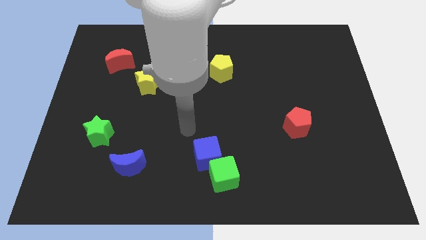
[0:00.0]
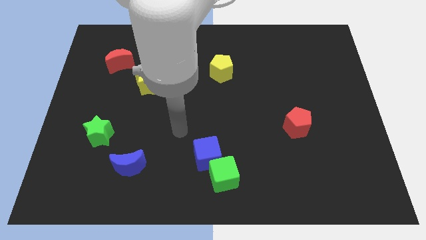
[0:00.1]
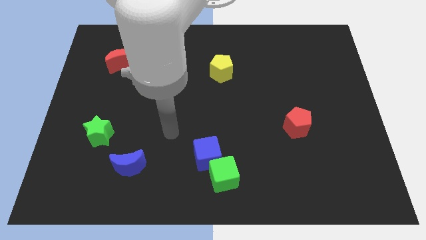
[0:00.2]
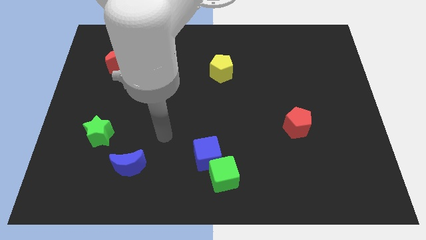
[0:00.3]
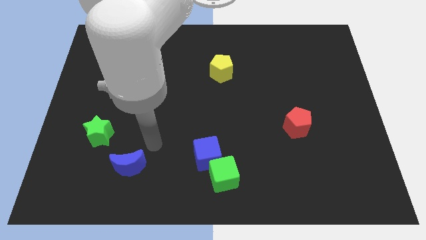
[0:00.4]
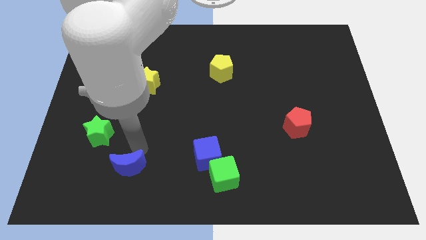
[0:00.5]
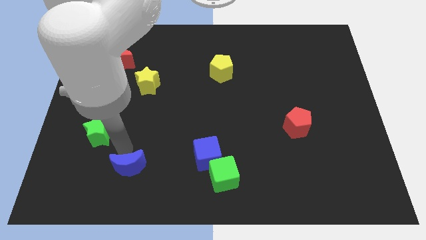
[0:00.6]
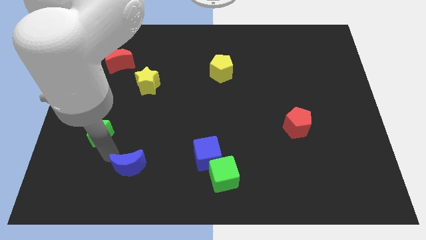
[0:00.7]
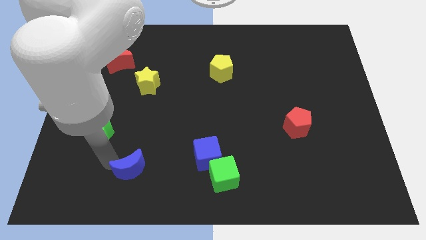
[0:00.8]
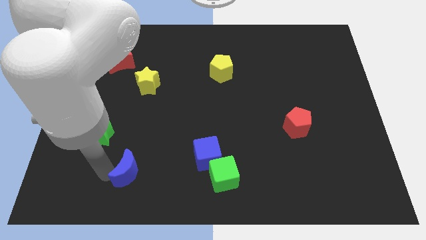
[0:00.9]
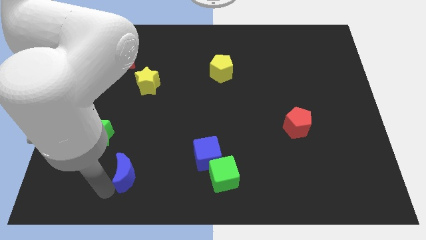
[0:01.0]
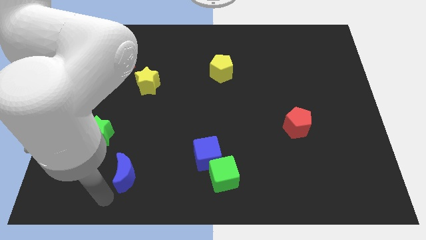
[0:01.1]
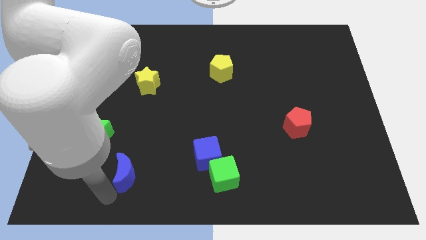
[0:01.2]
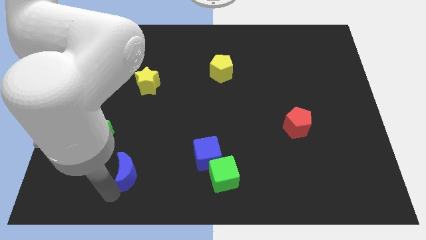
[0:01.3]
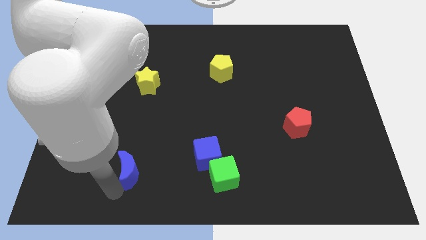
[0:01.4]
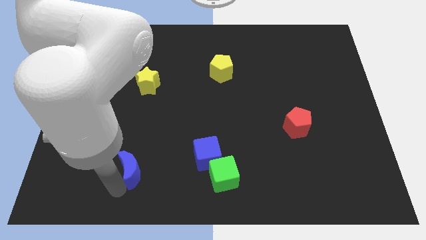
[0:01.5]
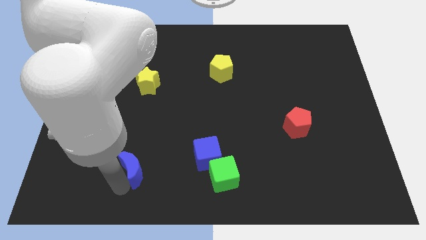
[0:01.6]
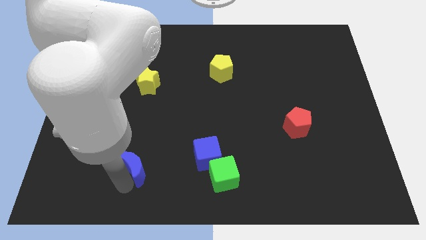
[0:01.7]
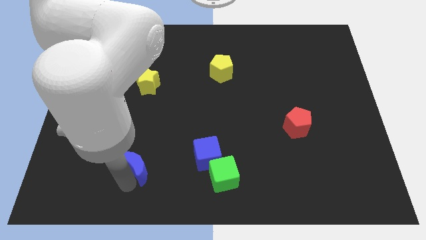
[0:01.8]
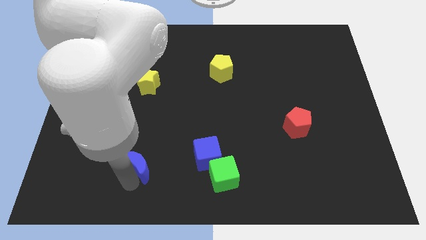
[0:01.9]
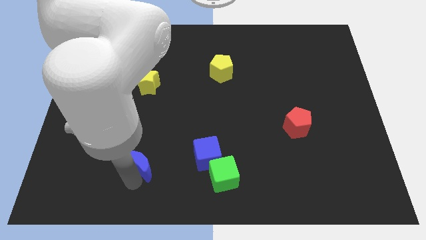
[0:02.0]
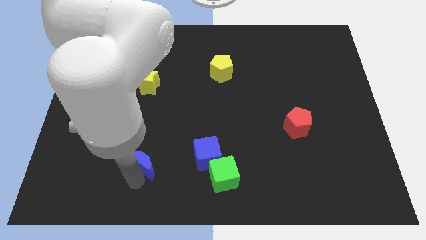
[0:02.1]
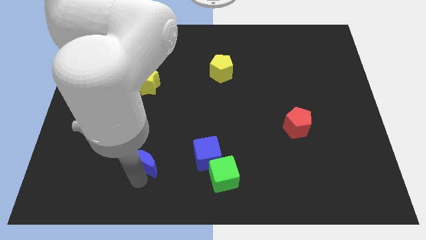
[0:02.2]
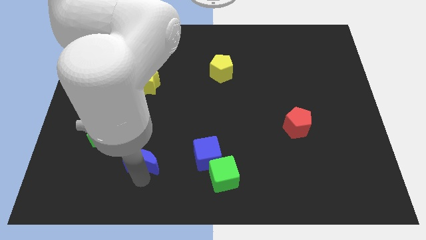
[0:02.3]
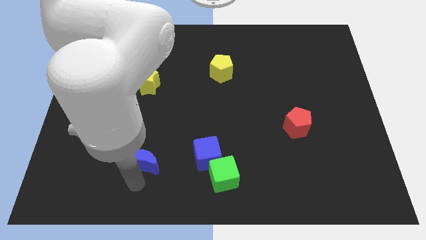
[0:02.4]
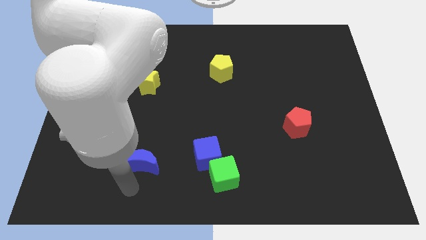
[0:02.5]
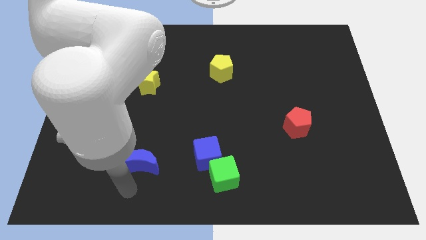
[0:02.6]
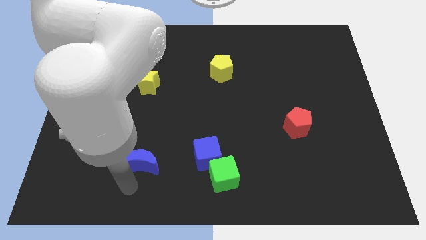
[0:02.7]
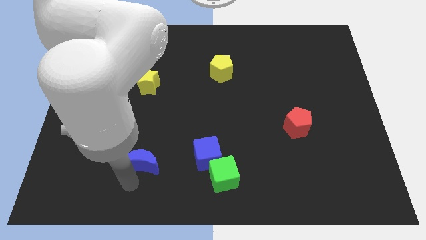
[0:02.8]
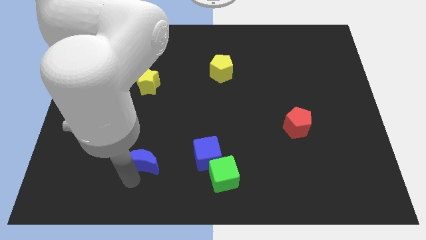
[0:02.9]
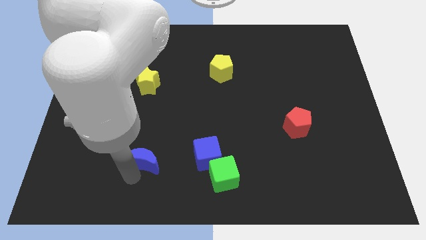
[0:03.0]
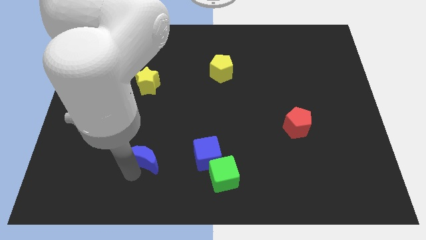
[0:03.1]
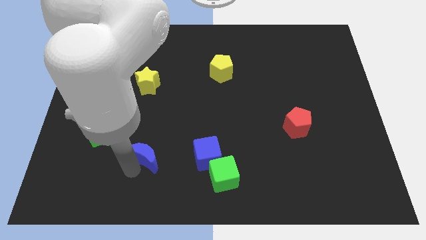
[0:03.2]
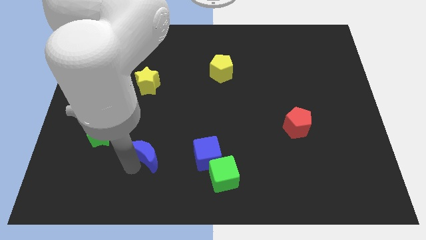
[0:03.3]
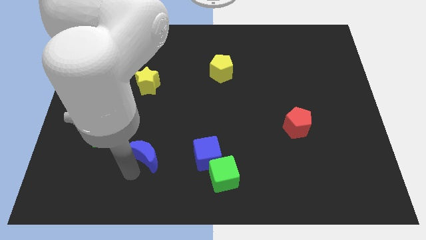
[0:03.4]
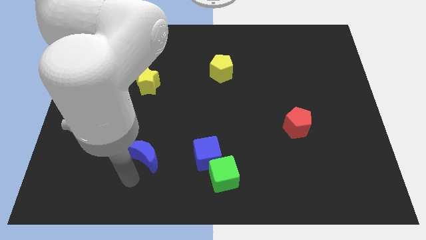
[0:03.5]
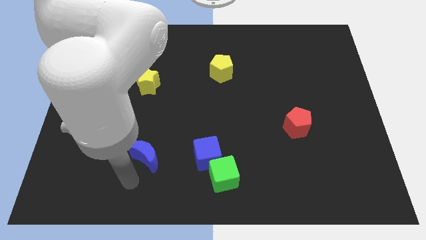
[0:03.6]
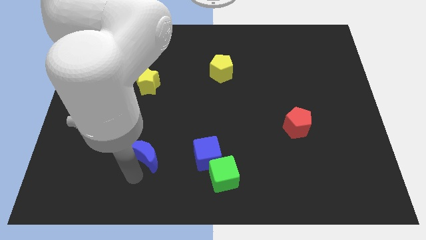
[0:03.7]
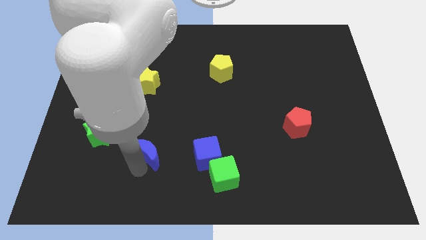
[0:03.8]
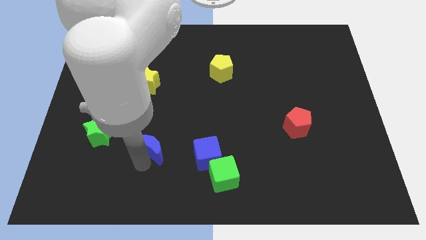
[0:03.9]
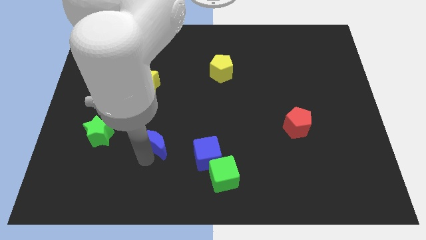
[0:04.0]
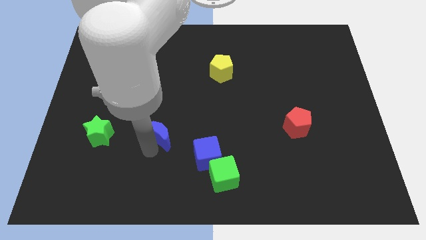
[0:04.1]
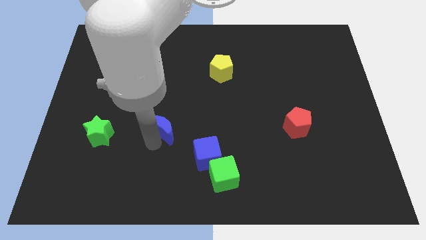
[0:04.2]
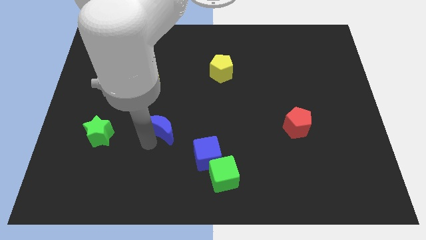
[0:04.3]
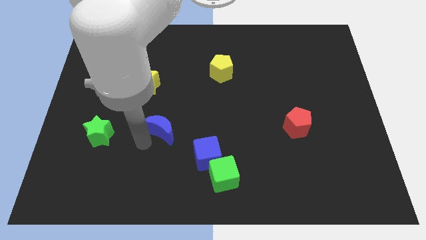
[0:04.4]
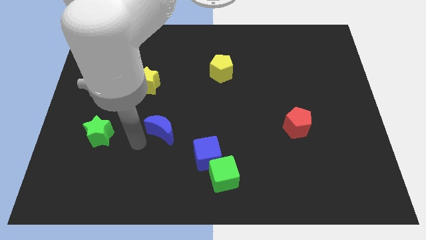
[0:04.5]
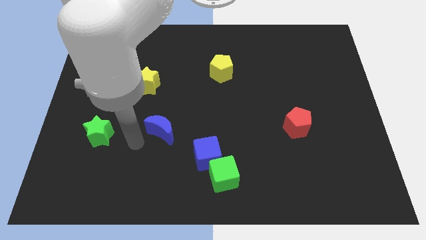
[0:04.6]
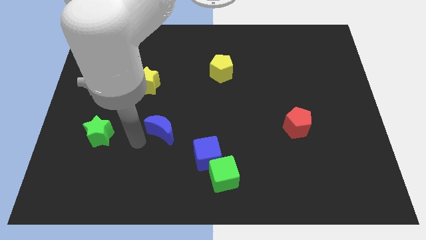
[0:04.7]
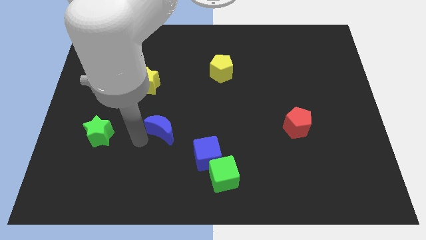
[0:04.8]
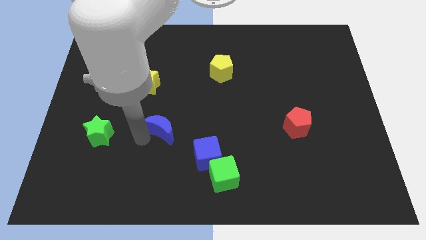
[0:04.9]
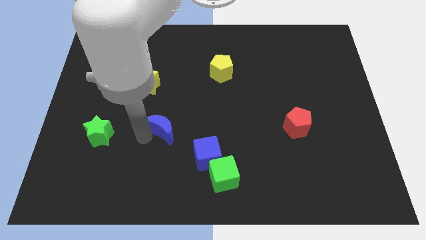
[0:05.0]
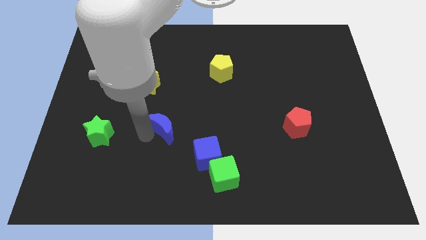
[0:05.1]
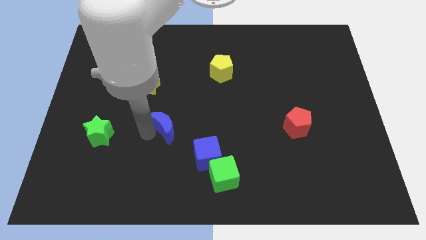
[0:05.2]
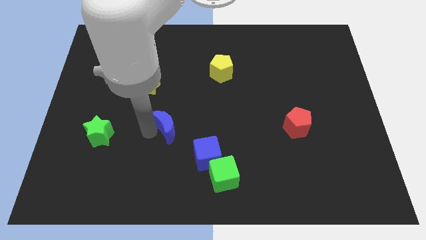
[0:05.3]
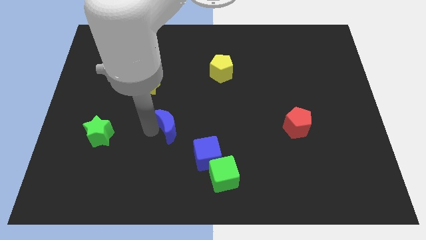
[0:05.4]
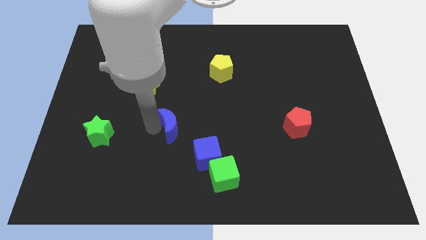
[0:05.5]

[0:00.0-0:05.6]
push the blue moon to the middle

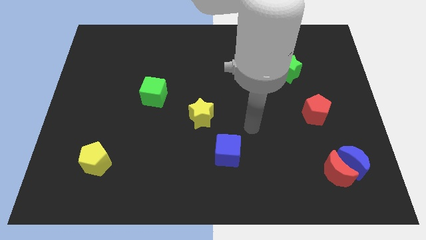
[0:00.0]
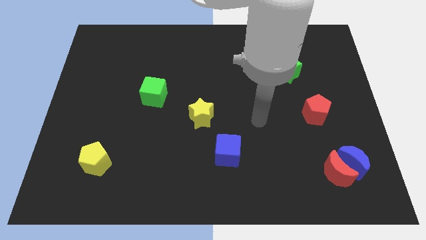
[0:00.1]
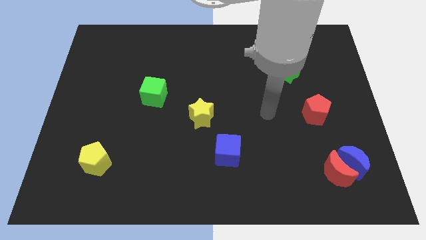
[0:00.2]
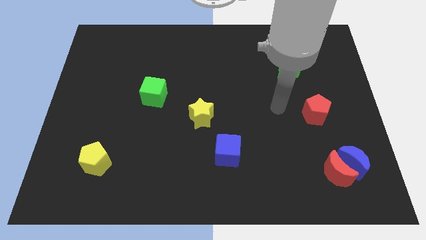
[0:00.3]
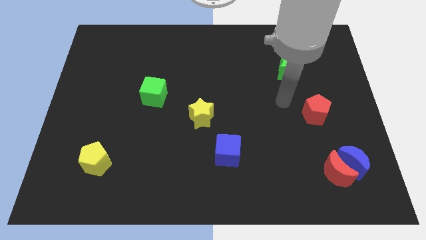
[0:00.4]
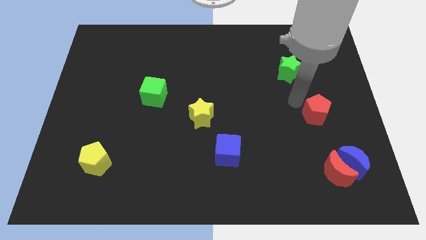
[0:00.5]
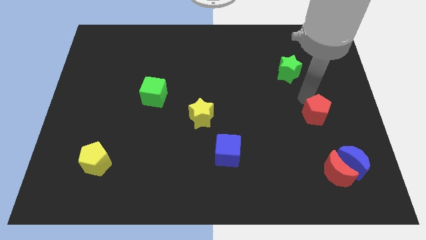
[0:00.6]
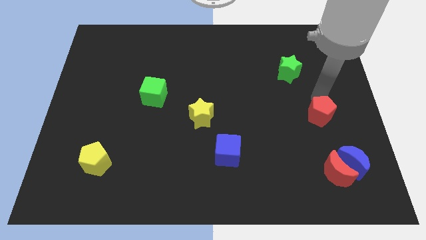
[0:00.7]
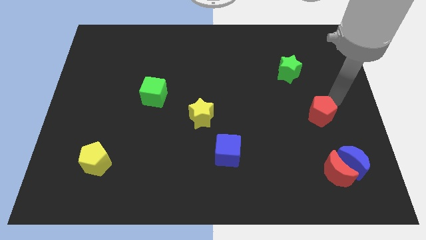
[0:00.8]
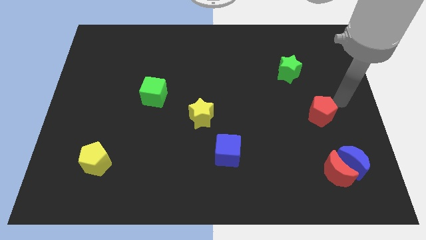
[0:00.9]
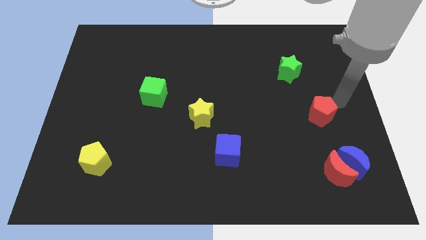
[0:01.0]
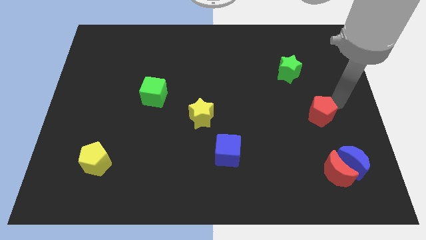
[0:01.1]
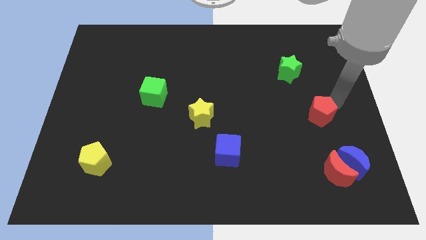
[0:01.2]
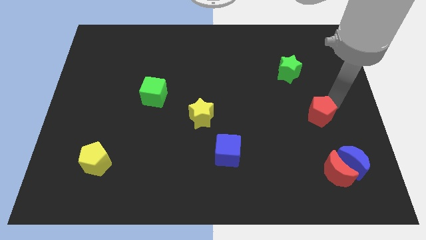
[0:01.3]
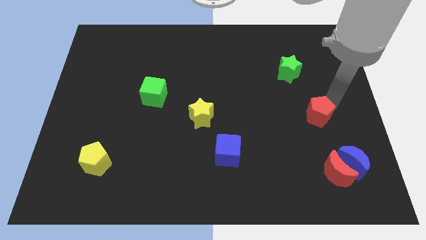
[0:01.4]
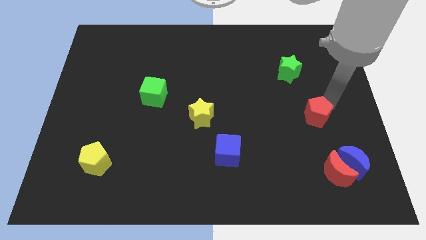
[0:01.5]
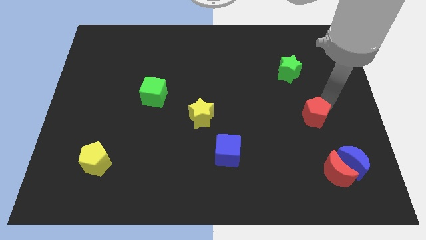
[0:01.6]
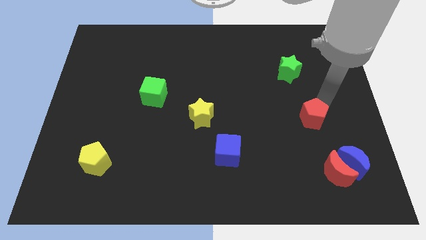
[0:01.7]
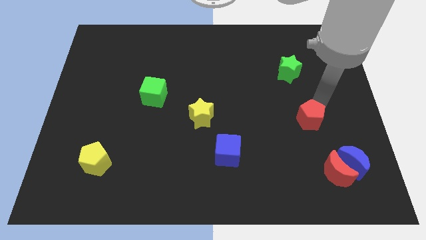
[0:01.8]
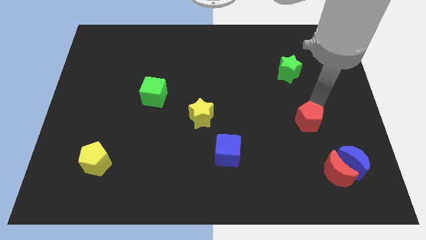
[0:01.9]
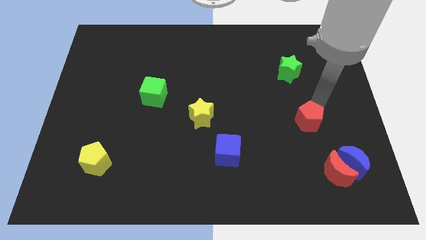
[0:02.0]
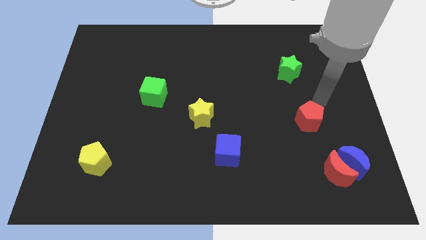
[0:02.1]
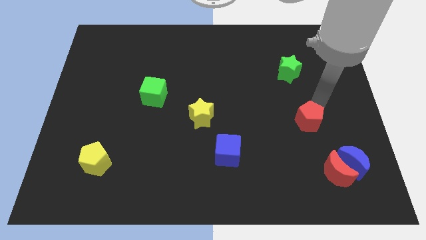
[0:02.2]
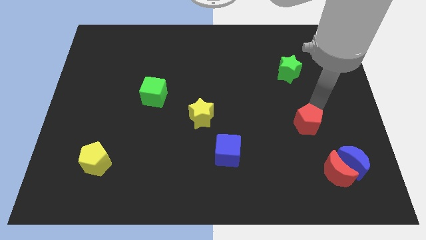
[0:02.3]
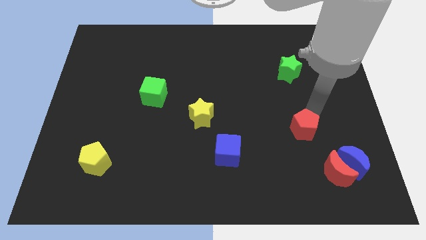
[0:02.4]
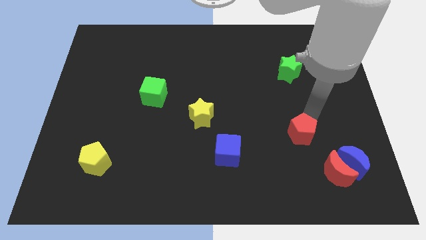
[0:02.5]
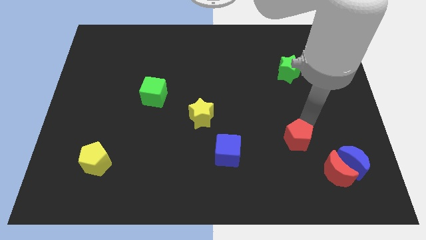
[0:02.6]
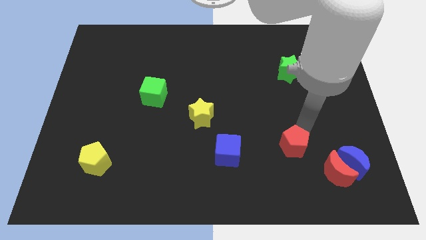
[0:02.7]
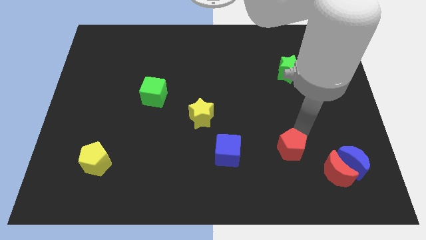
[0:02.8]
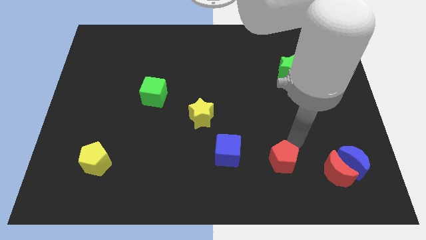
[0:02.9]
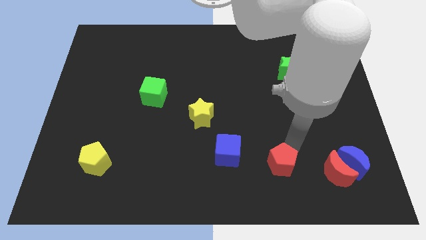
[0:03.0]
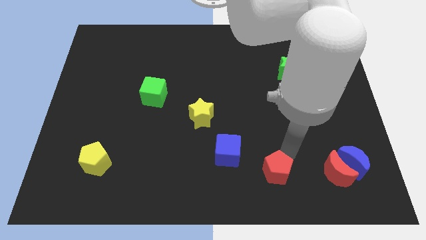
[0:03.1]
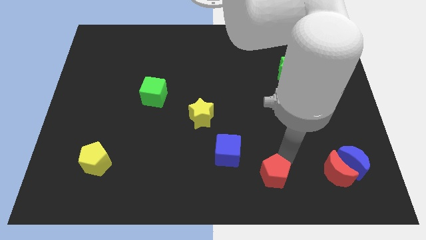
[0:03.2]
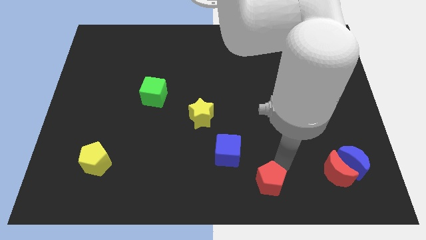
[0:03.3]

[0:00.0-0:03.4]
slide the red pentagon to the bottom side
